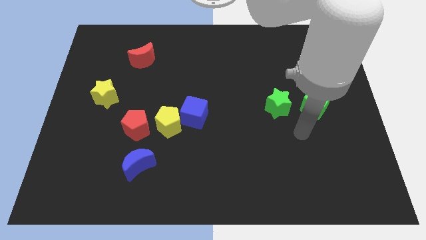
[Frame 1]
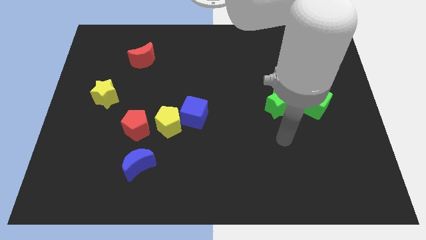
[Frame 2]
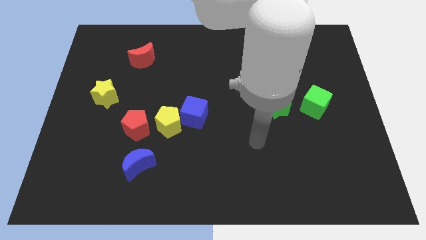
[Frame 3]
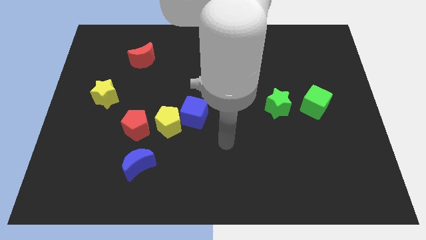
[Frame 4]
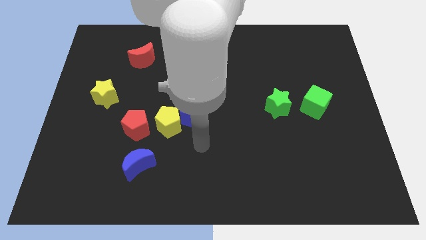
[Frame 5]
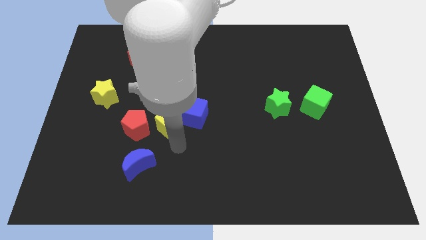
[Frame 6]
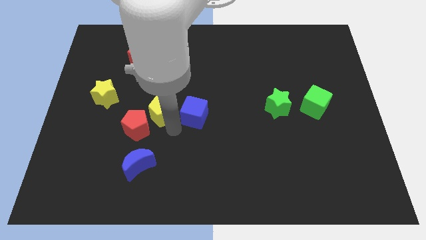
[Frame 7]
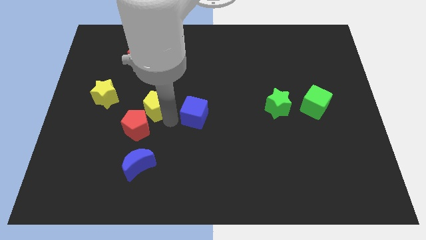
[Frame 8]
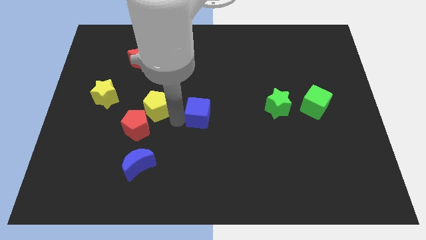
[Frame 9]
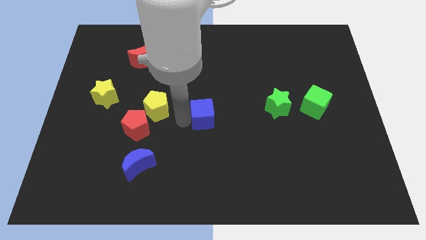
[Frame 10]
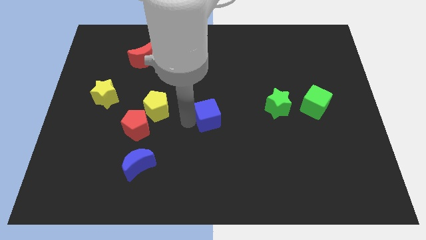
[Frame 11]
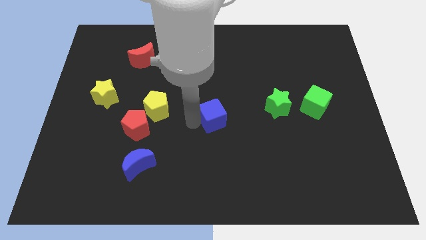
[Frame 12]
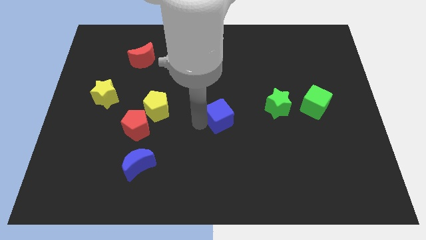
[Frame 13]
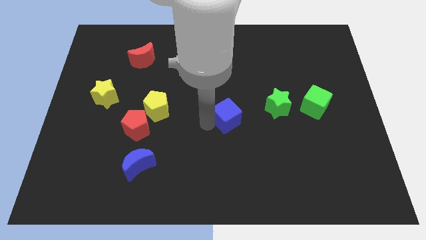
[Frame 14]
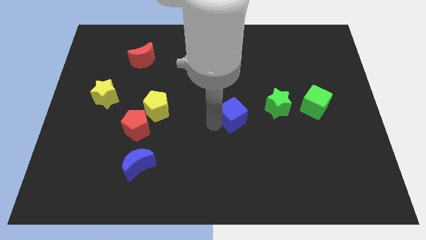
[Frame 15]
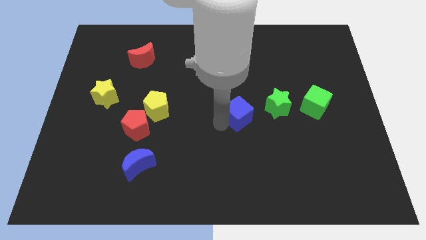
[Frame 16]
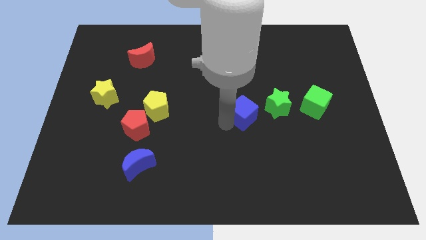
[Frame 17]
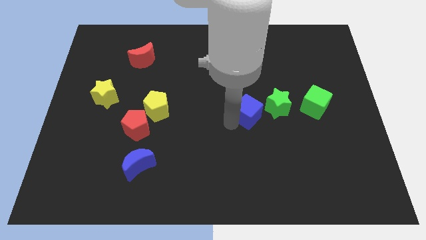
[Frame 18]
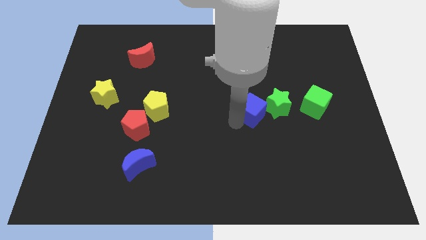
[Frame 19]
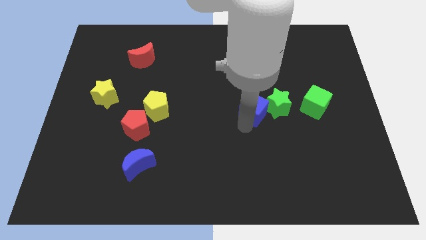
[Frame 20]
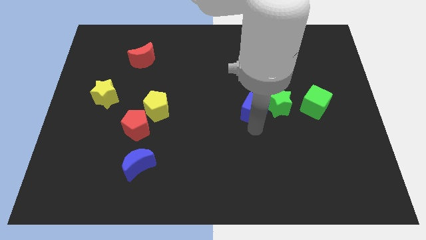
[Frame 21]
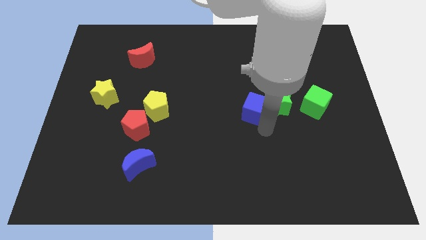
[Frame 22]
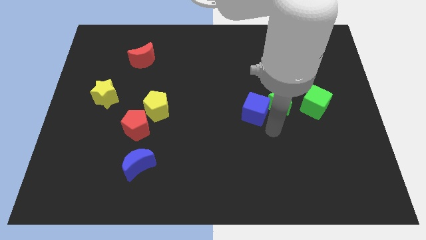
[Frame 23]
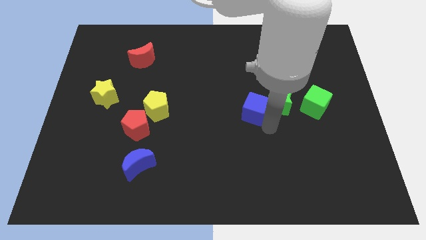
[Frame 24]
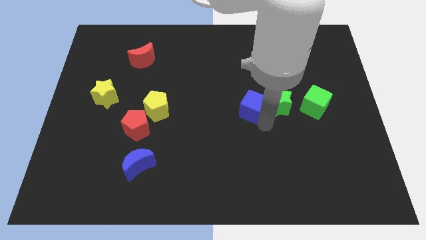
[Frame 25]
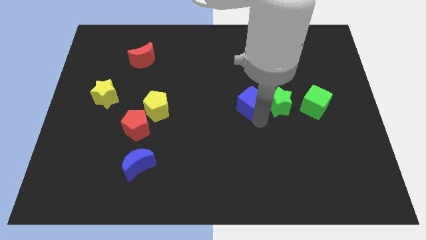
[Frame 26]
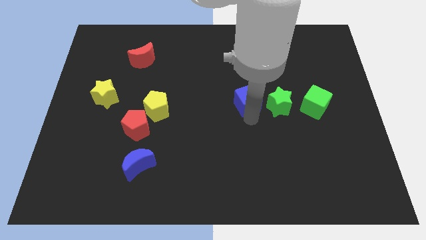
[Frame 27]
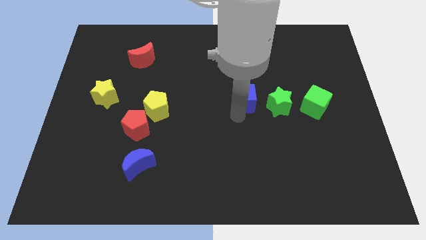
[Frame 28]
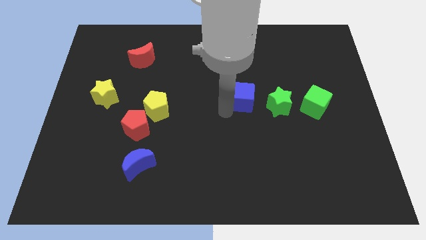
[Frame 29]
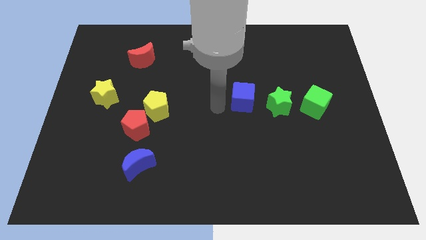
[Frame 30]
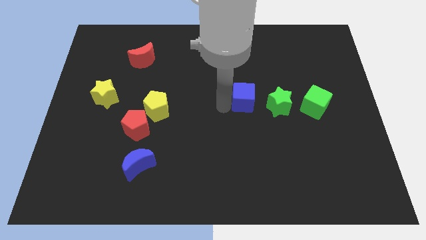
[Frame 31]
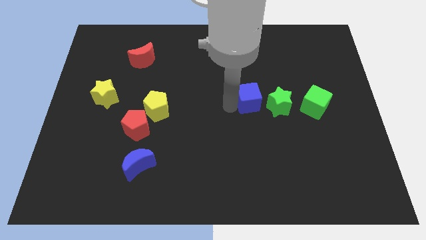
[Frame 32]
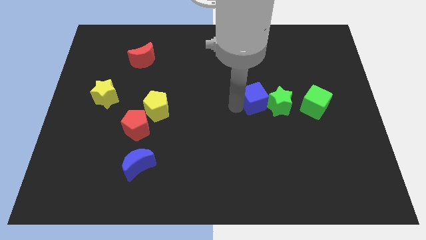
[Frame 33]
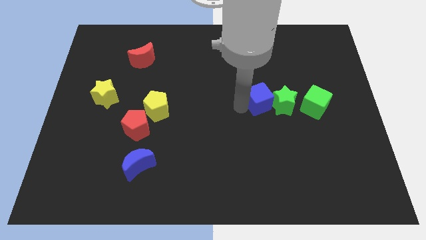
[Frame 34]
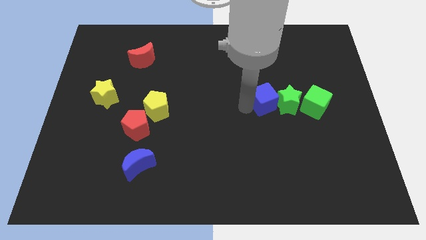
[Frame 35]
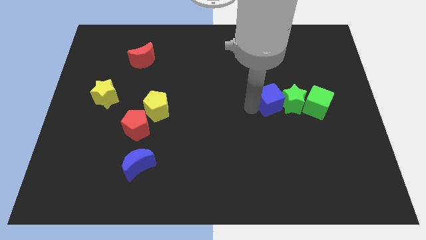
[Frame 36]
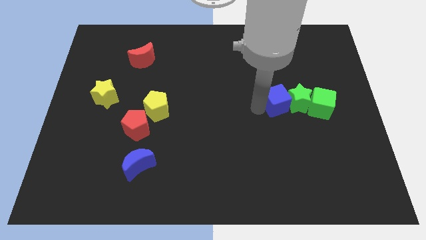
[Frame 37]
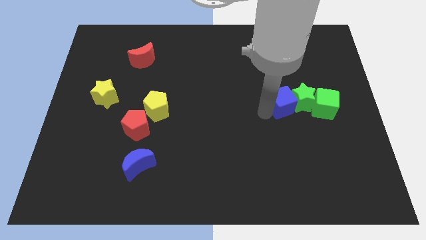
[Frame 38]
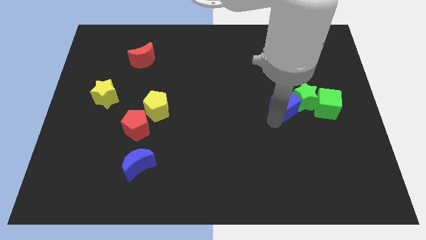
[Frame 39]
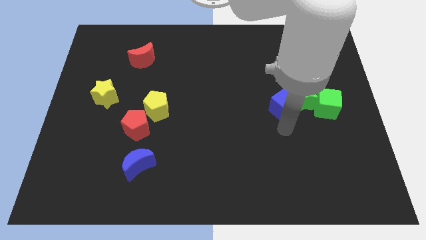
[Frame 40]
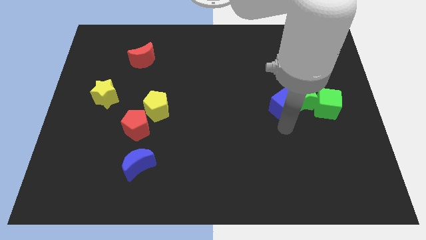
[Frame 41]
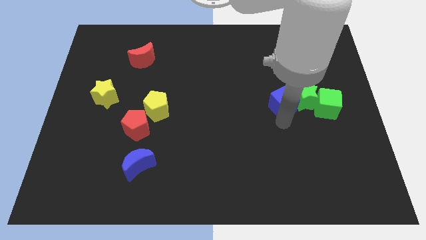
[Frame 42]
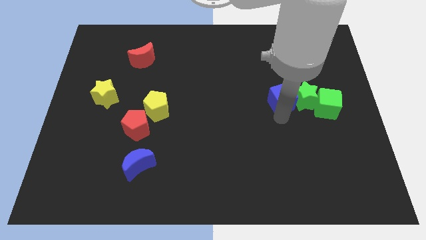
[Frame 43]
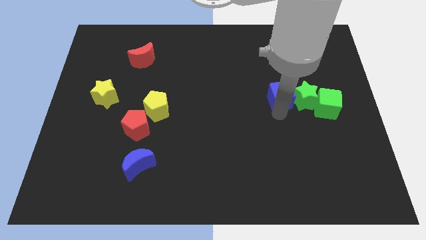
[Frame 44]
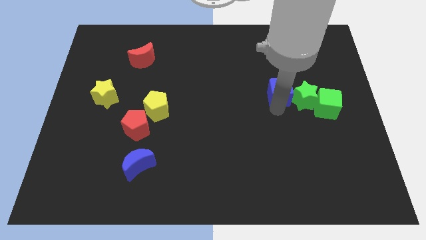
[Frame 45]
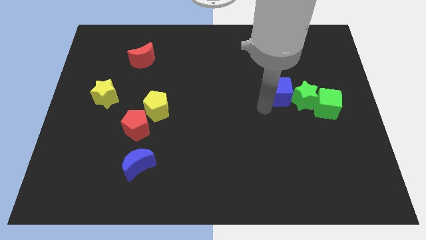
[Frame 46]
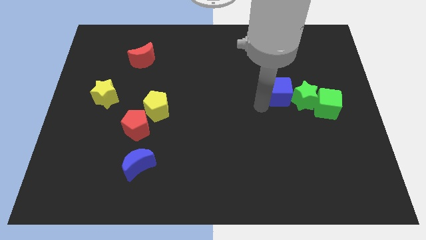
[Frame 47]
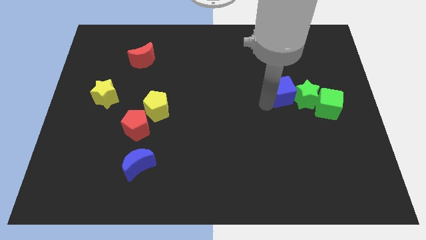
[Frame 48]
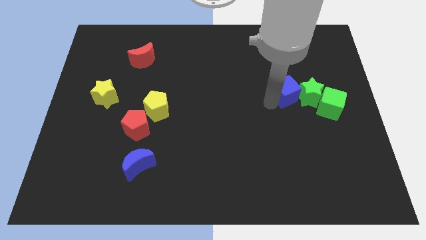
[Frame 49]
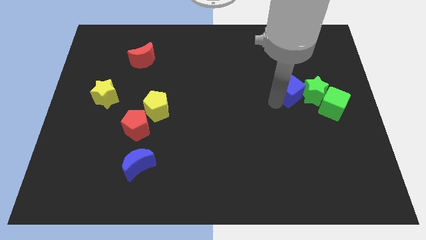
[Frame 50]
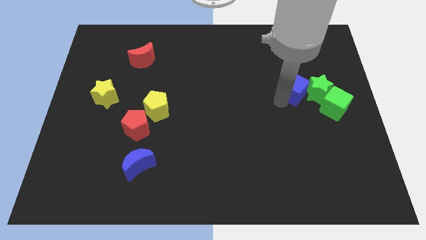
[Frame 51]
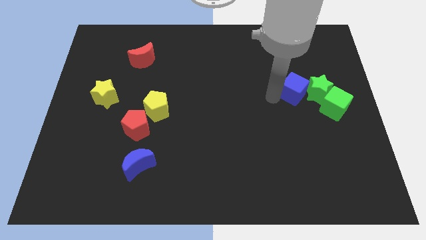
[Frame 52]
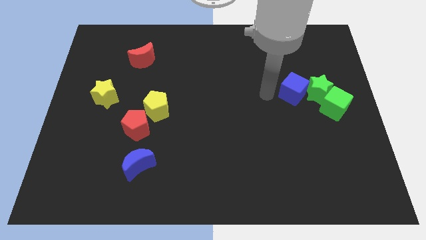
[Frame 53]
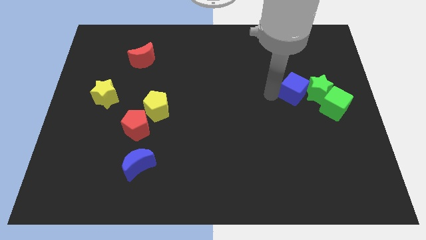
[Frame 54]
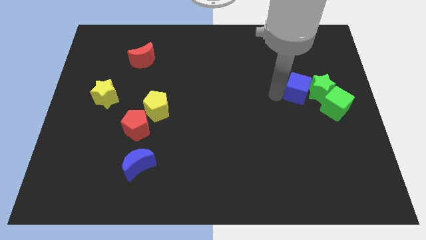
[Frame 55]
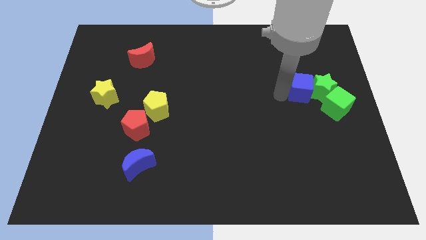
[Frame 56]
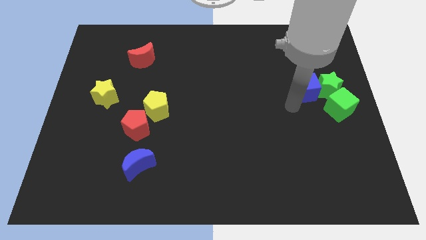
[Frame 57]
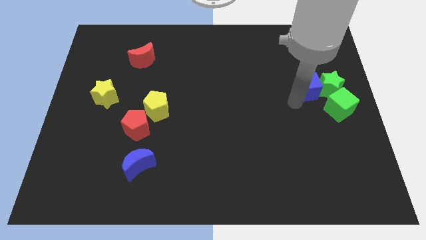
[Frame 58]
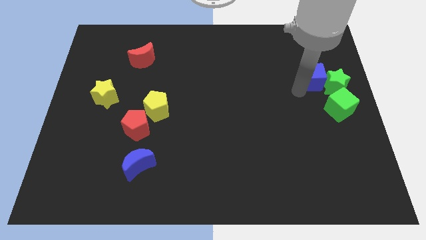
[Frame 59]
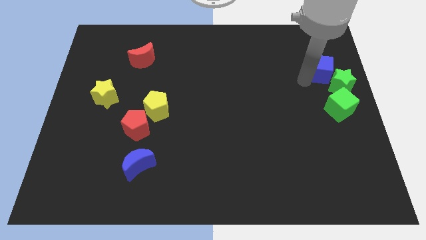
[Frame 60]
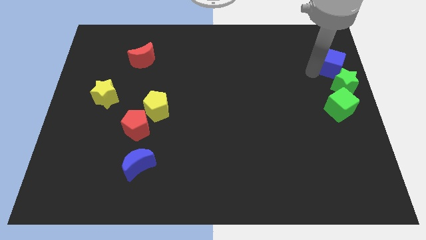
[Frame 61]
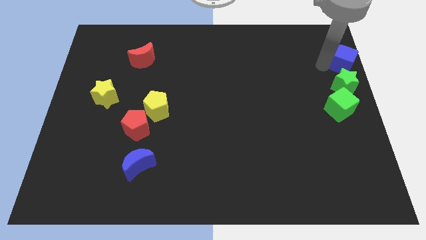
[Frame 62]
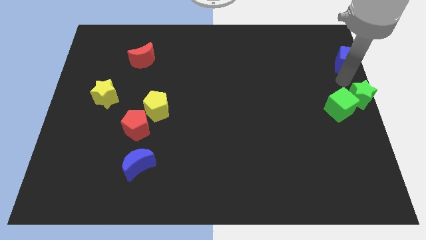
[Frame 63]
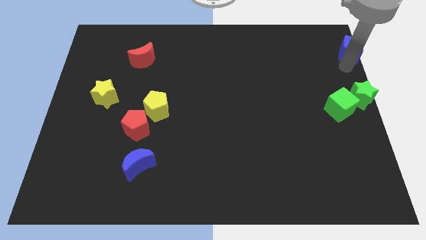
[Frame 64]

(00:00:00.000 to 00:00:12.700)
push the blue cube to the top right corner
